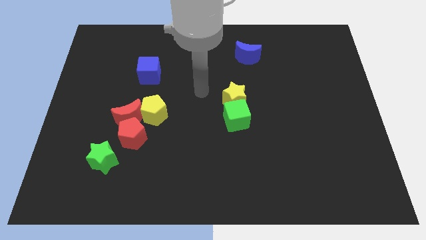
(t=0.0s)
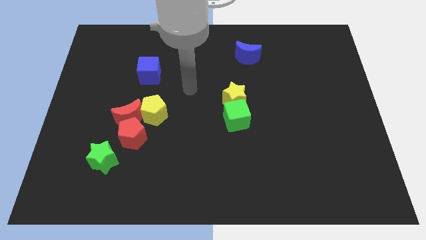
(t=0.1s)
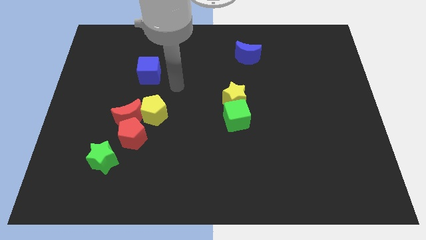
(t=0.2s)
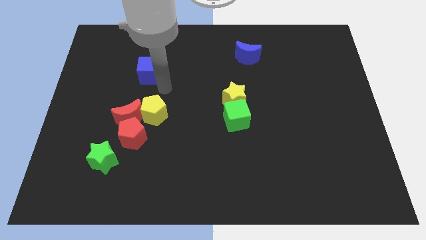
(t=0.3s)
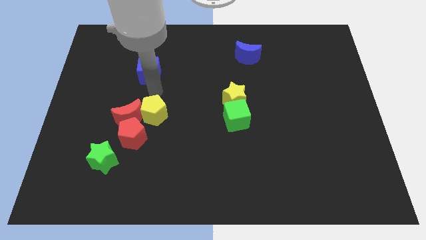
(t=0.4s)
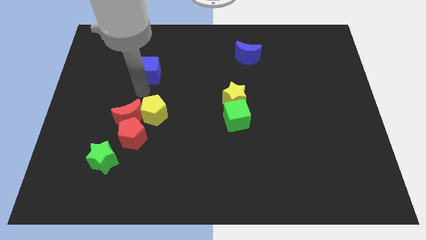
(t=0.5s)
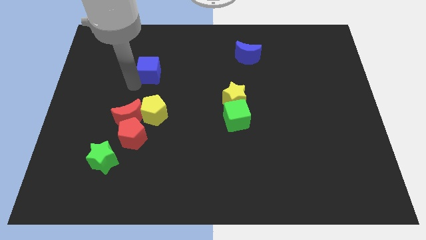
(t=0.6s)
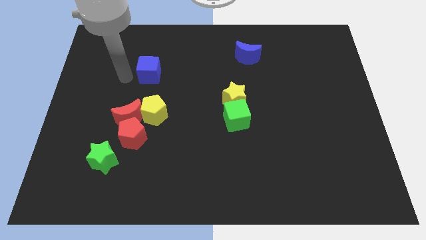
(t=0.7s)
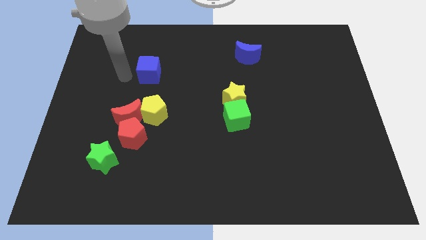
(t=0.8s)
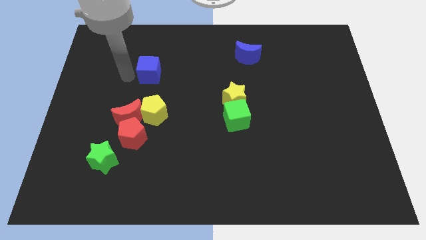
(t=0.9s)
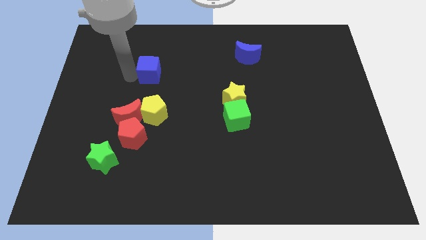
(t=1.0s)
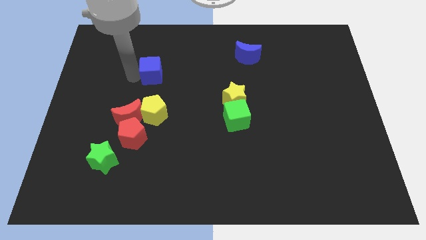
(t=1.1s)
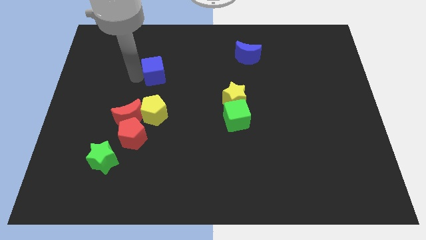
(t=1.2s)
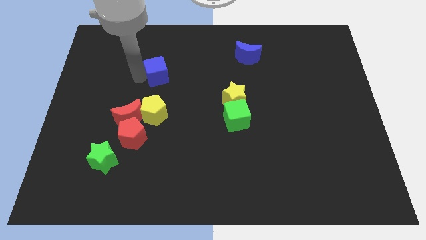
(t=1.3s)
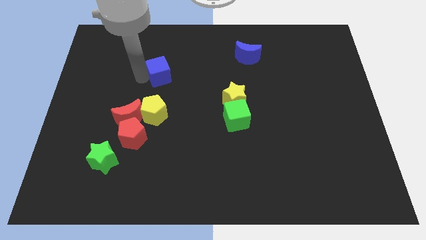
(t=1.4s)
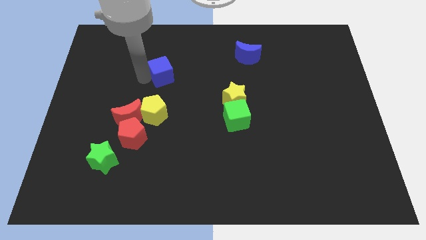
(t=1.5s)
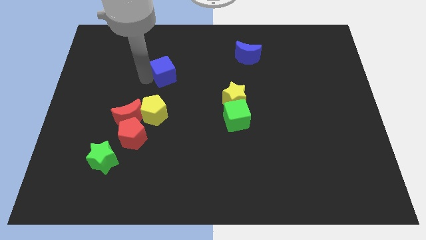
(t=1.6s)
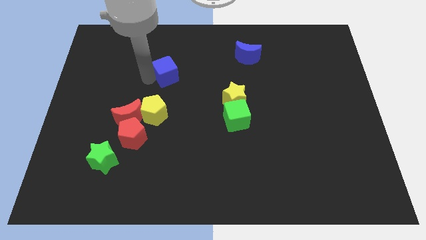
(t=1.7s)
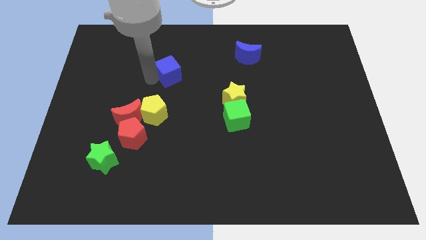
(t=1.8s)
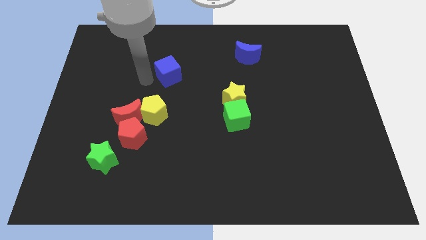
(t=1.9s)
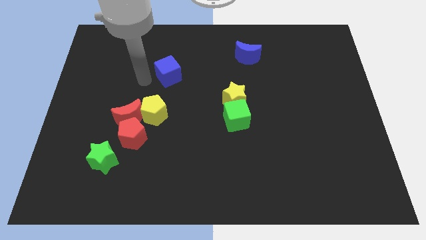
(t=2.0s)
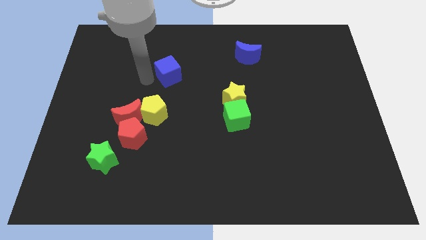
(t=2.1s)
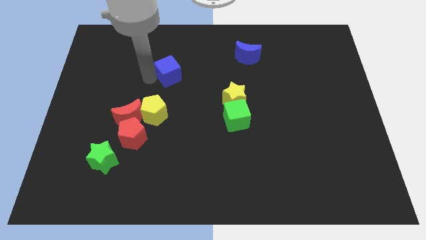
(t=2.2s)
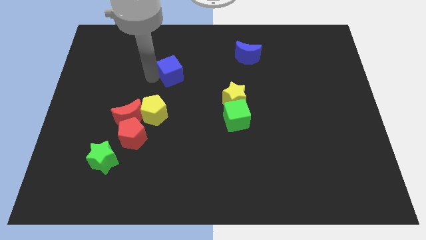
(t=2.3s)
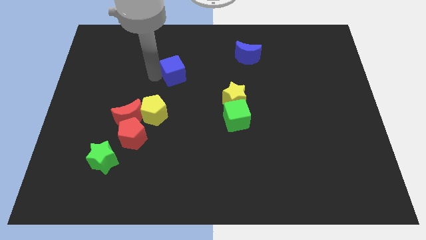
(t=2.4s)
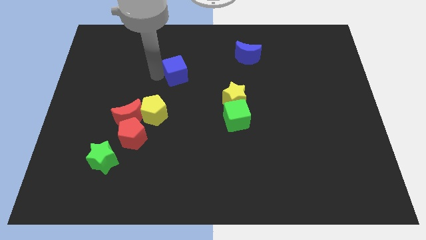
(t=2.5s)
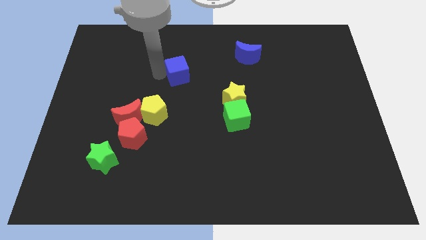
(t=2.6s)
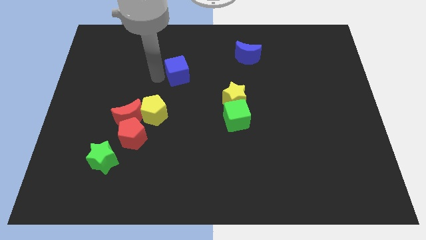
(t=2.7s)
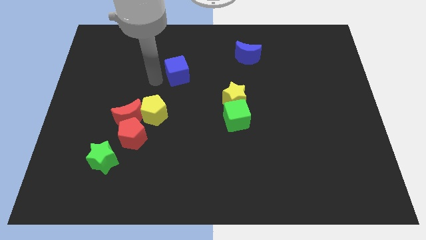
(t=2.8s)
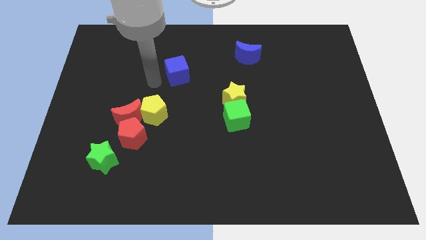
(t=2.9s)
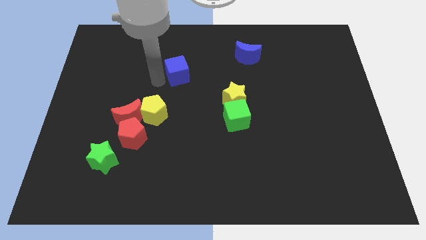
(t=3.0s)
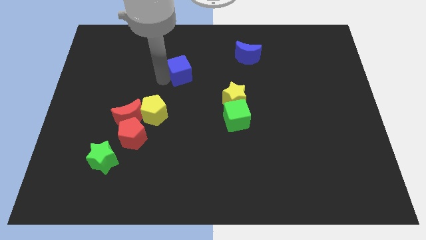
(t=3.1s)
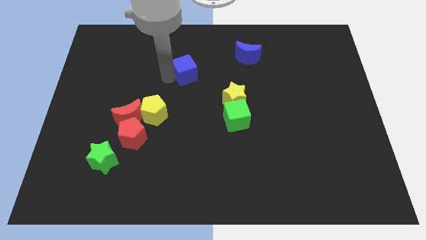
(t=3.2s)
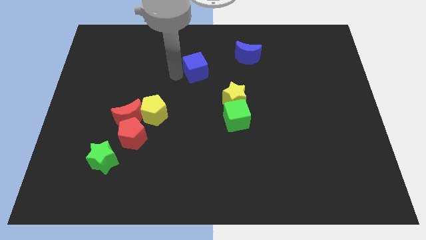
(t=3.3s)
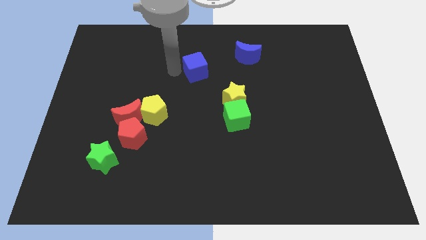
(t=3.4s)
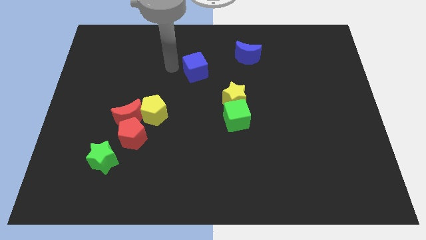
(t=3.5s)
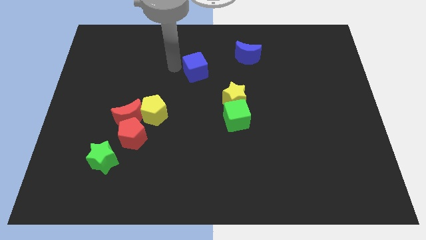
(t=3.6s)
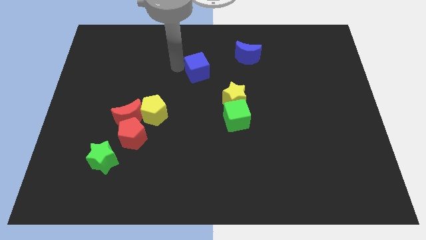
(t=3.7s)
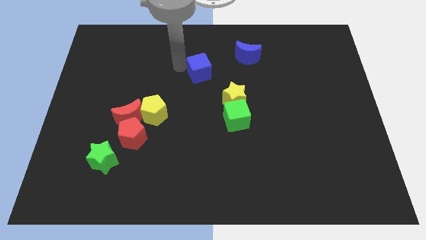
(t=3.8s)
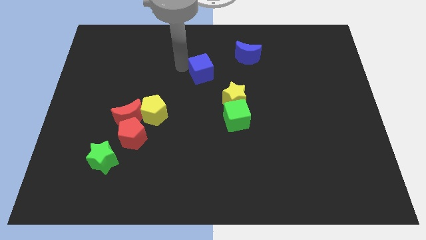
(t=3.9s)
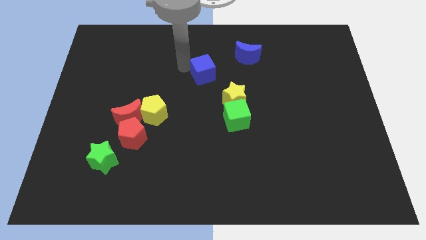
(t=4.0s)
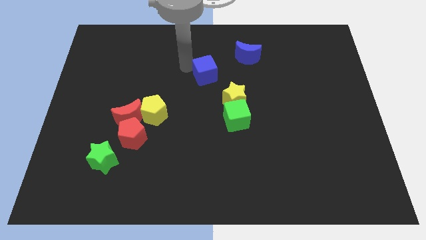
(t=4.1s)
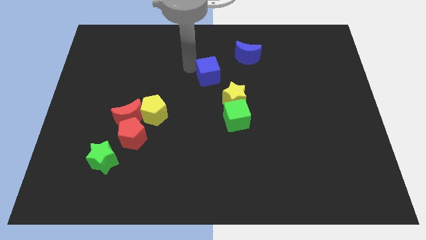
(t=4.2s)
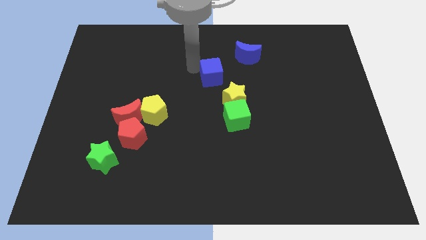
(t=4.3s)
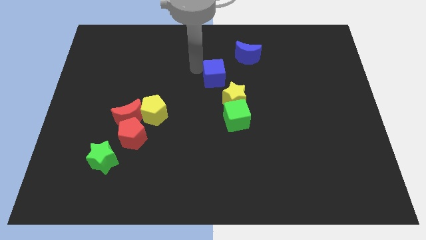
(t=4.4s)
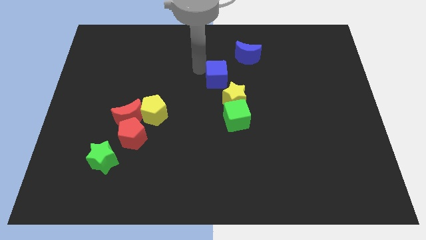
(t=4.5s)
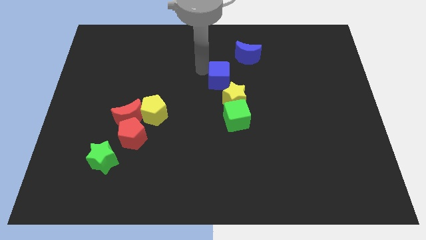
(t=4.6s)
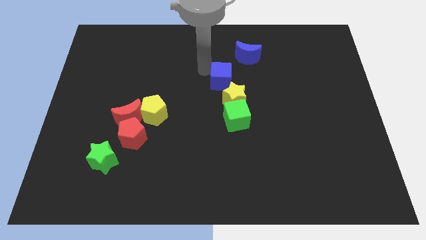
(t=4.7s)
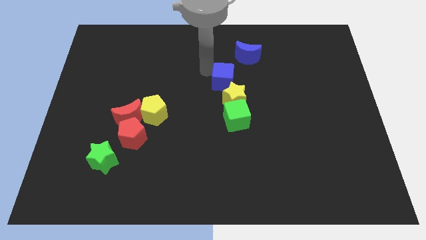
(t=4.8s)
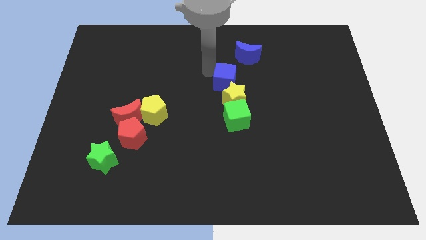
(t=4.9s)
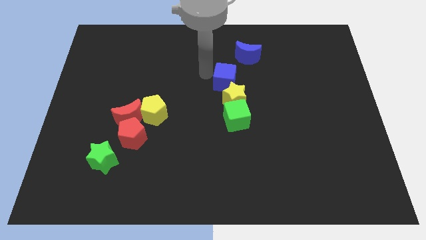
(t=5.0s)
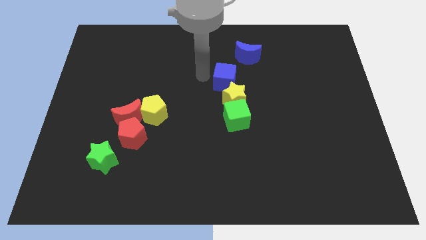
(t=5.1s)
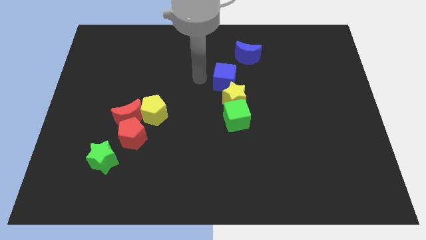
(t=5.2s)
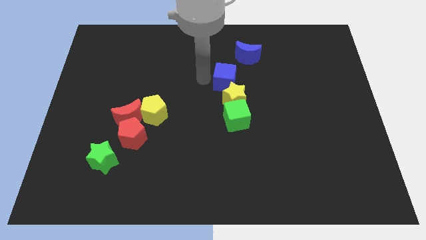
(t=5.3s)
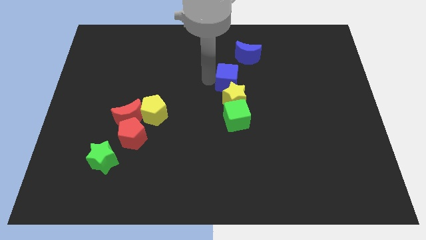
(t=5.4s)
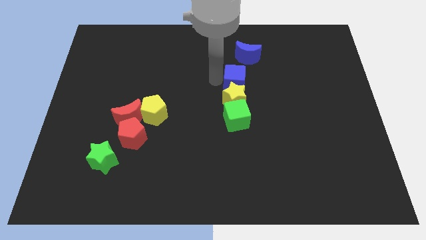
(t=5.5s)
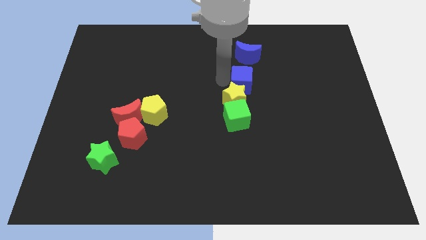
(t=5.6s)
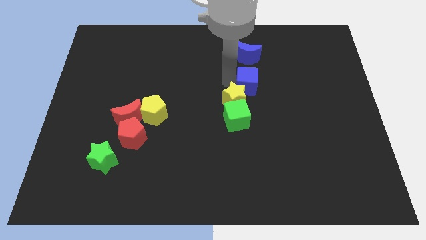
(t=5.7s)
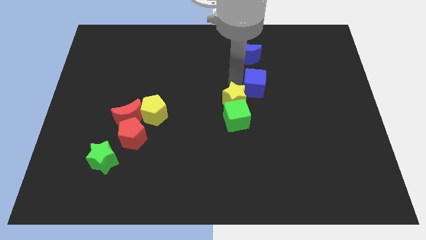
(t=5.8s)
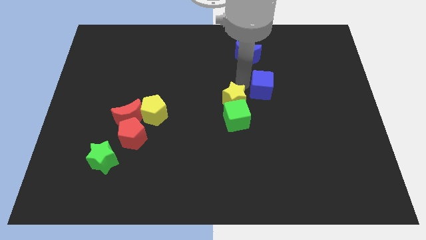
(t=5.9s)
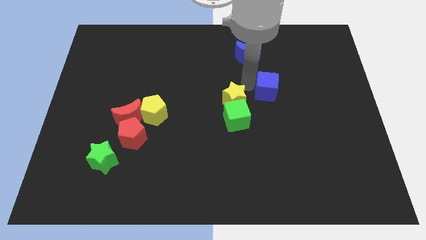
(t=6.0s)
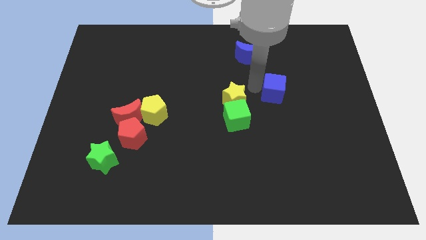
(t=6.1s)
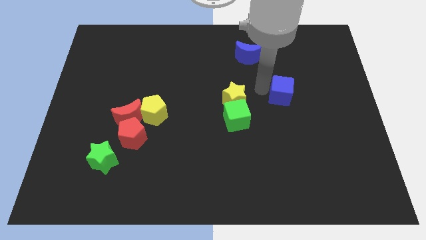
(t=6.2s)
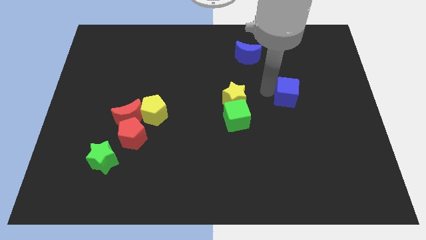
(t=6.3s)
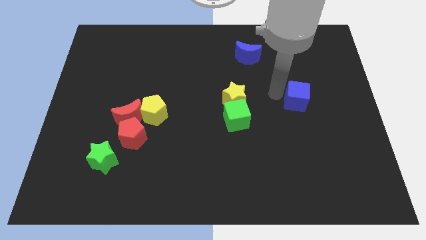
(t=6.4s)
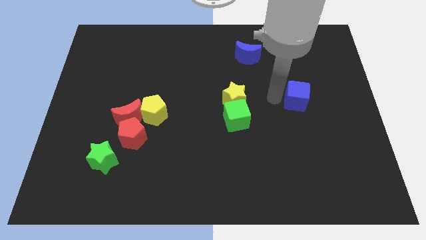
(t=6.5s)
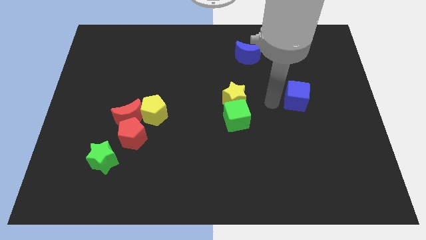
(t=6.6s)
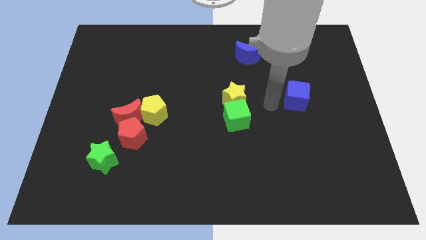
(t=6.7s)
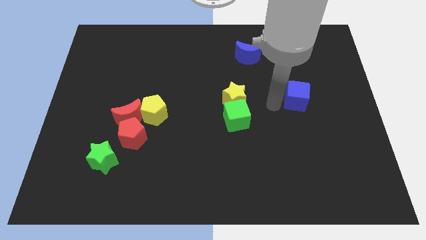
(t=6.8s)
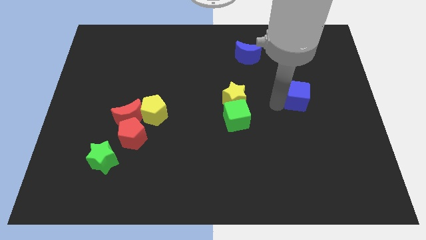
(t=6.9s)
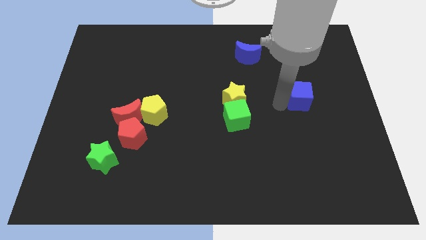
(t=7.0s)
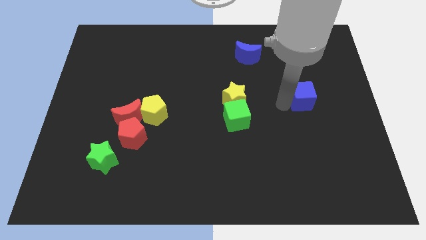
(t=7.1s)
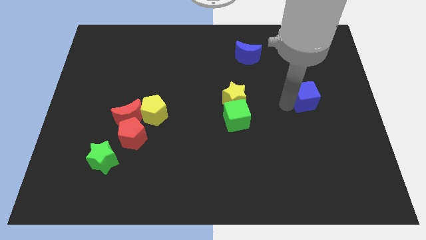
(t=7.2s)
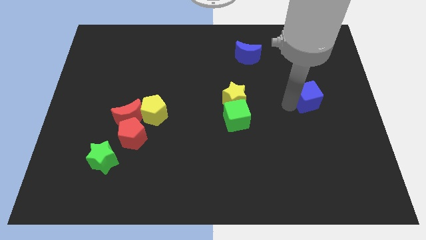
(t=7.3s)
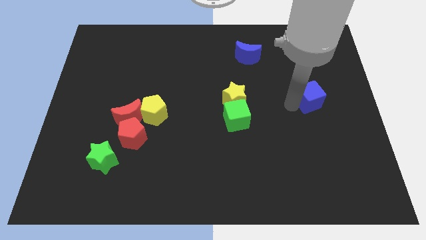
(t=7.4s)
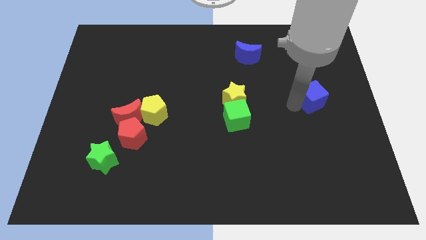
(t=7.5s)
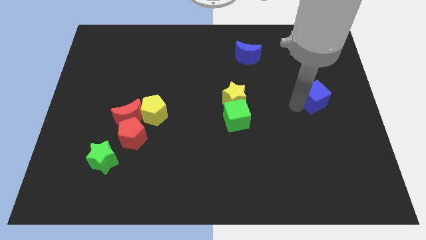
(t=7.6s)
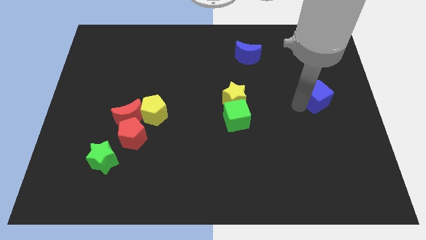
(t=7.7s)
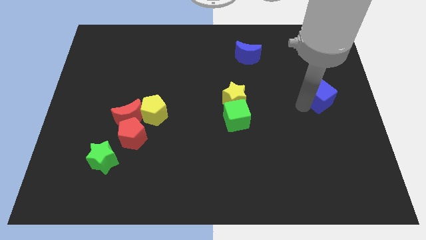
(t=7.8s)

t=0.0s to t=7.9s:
put the blue cube to the center right

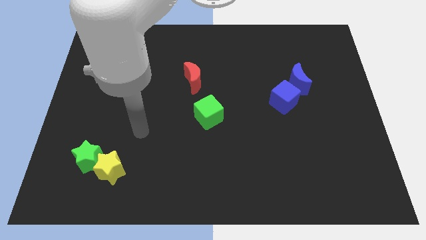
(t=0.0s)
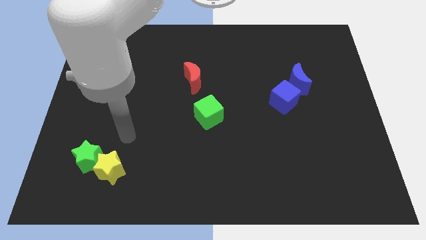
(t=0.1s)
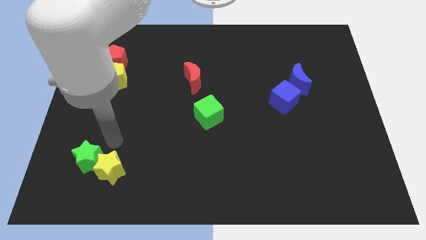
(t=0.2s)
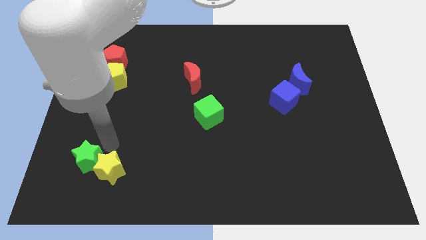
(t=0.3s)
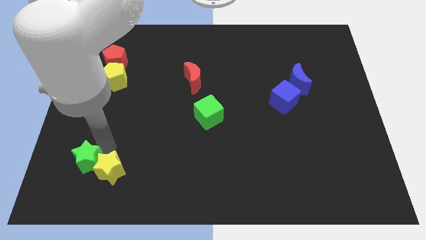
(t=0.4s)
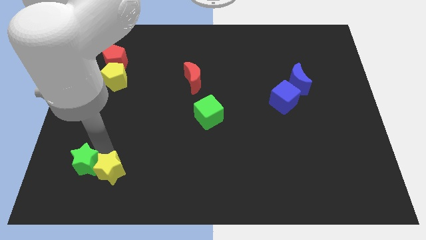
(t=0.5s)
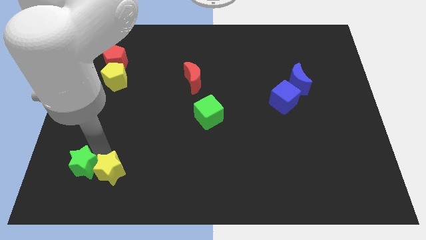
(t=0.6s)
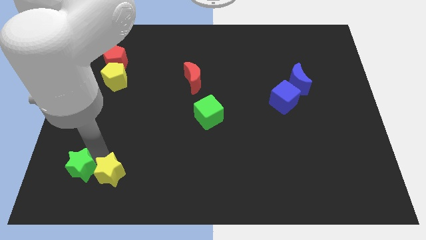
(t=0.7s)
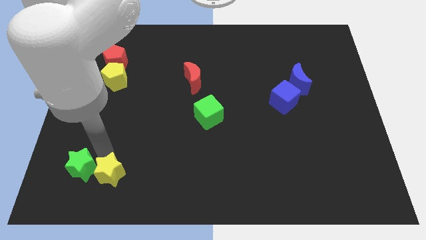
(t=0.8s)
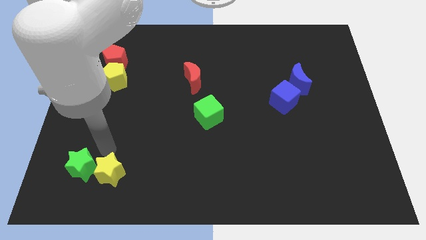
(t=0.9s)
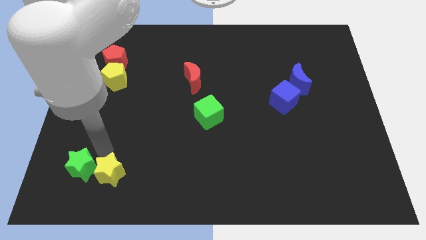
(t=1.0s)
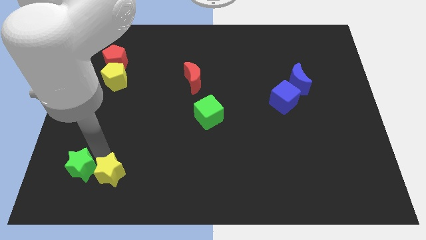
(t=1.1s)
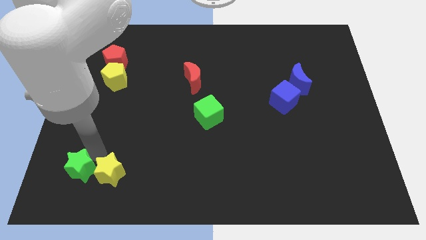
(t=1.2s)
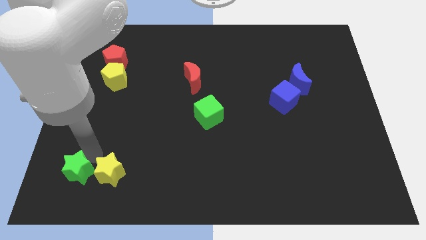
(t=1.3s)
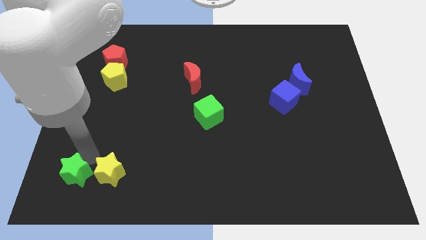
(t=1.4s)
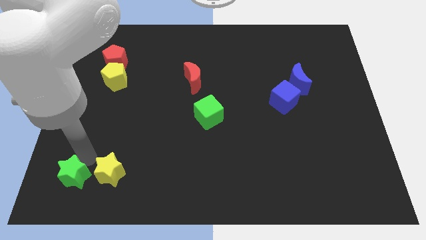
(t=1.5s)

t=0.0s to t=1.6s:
move the green star to the bottom left
